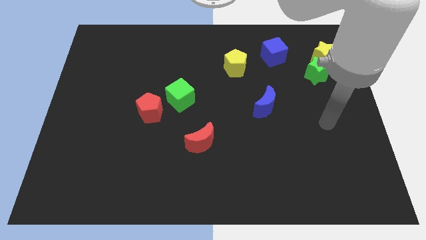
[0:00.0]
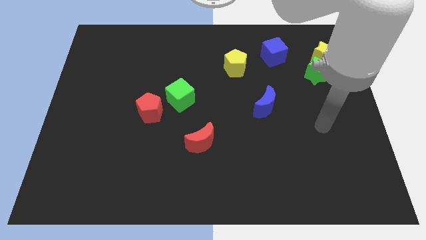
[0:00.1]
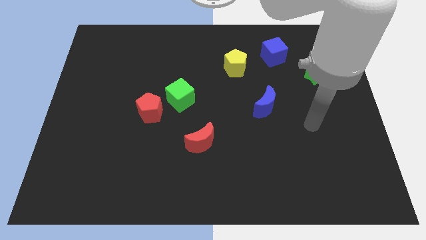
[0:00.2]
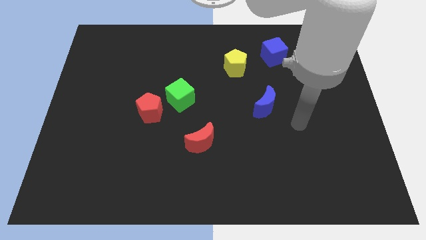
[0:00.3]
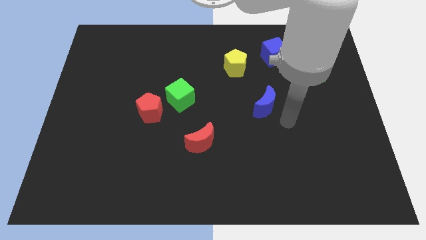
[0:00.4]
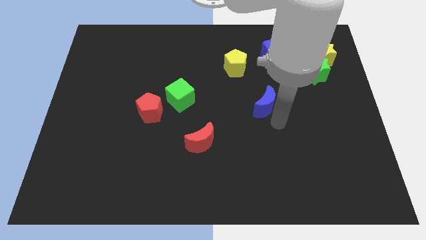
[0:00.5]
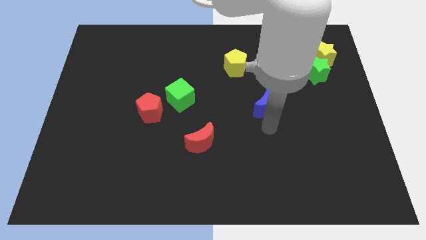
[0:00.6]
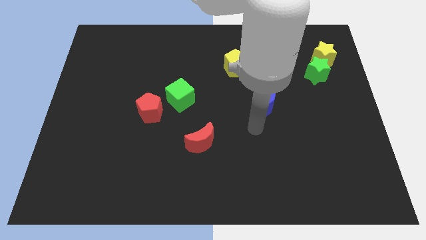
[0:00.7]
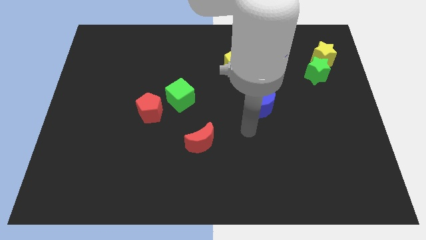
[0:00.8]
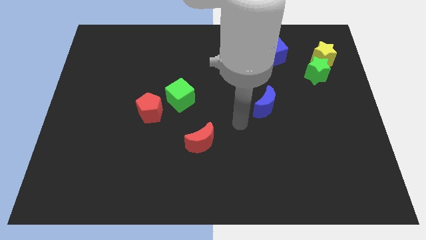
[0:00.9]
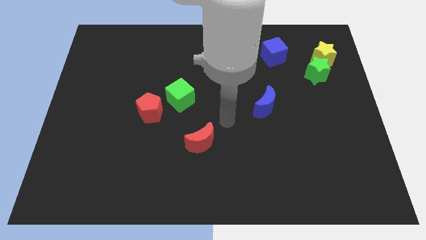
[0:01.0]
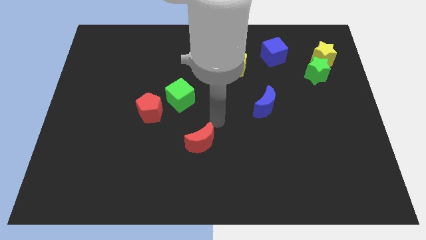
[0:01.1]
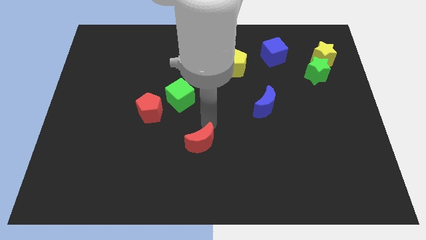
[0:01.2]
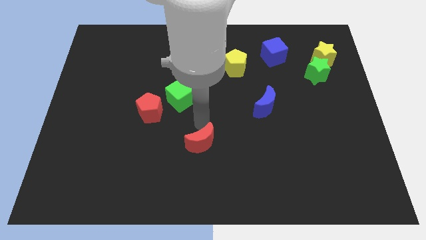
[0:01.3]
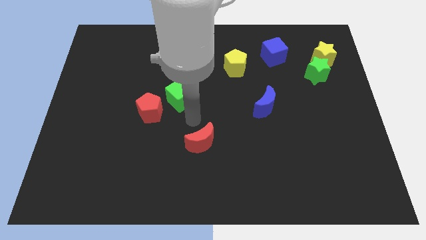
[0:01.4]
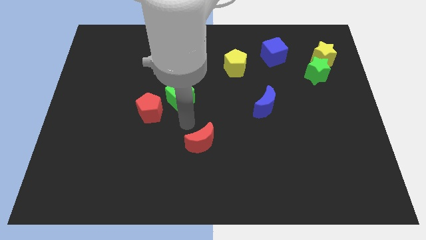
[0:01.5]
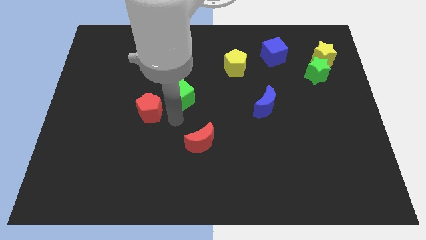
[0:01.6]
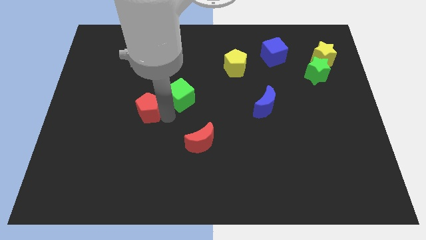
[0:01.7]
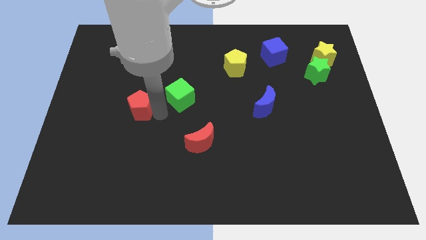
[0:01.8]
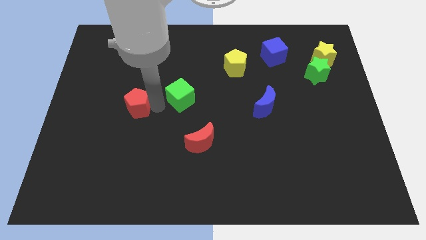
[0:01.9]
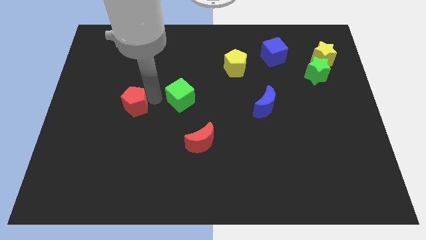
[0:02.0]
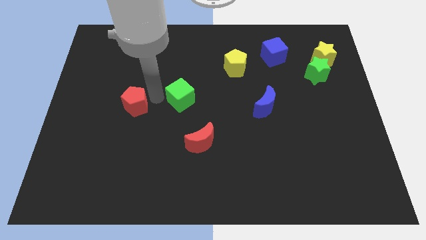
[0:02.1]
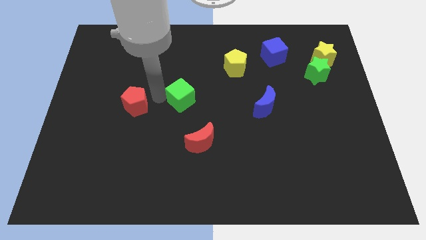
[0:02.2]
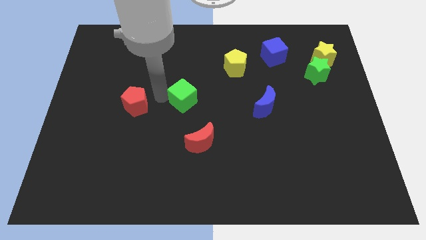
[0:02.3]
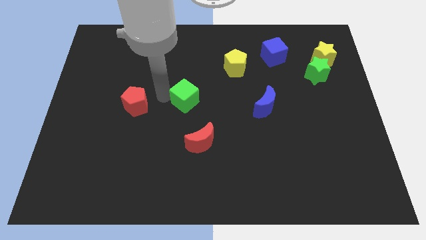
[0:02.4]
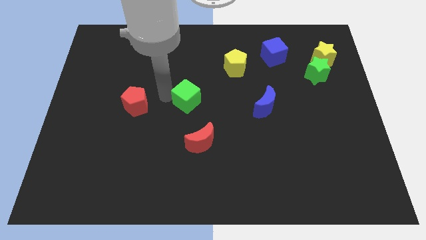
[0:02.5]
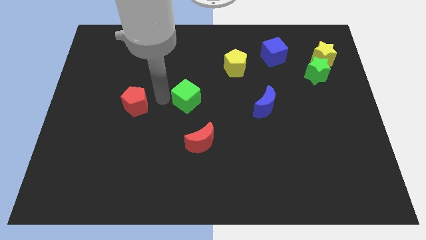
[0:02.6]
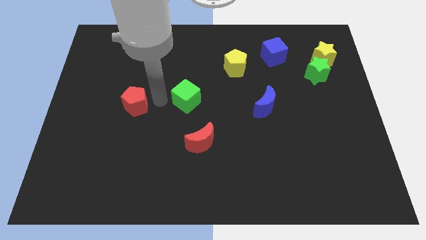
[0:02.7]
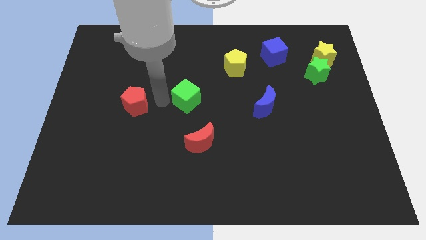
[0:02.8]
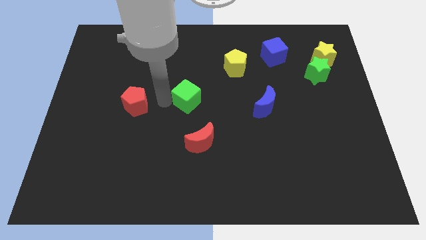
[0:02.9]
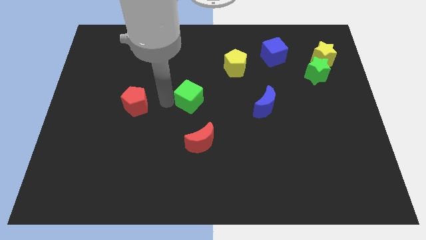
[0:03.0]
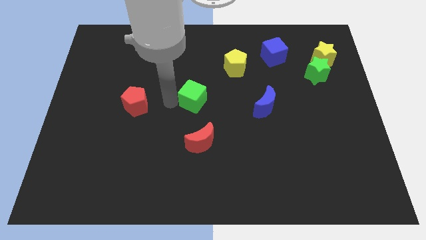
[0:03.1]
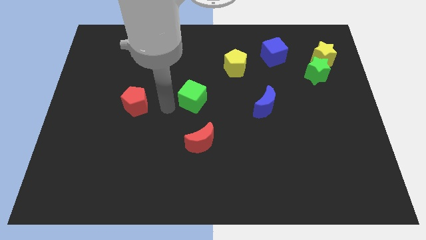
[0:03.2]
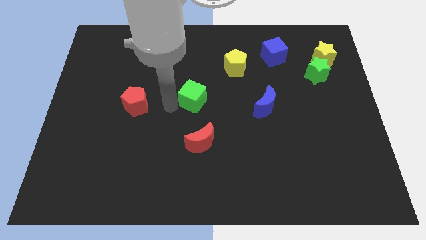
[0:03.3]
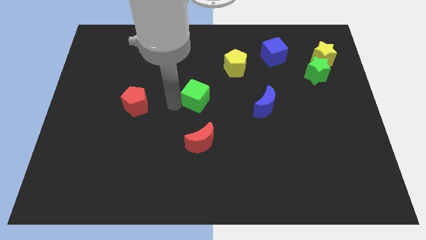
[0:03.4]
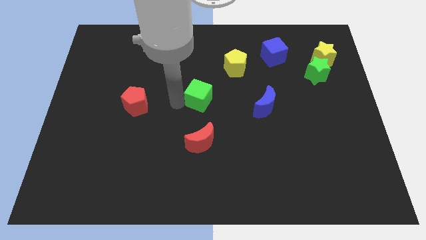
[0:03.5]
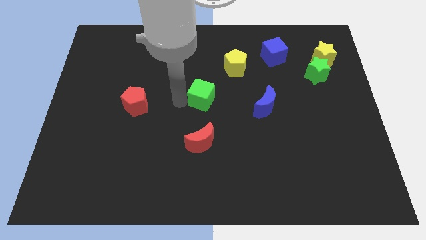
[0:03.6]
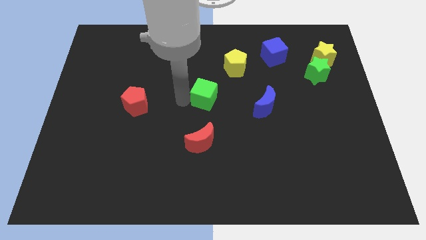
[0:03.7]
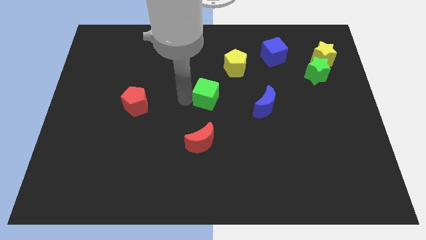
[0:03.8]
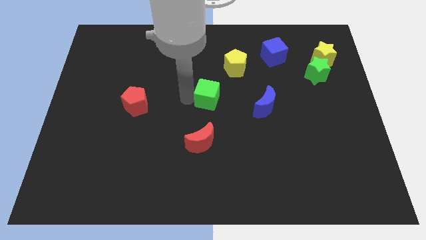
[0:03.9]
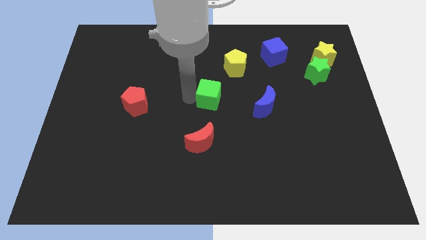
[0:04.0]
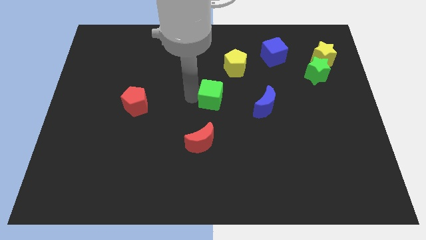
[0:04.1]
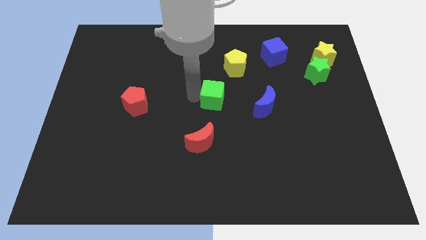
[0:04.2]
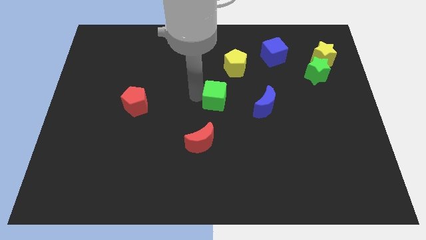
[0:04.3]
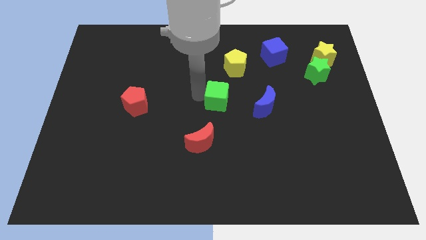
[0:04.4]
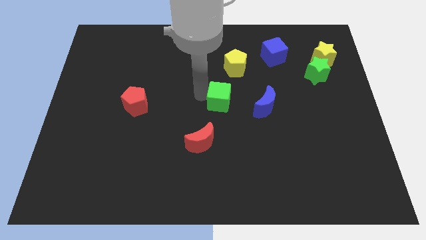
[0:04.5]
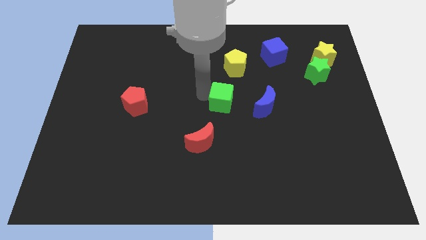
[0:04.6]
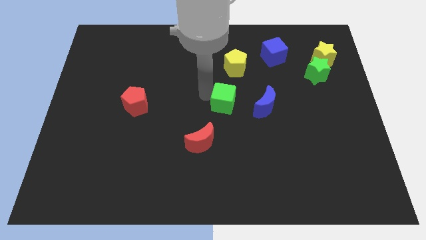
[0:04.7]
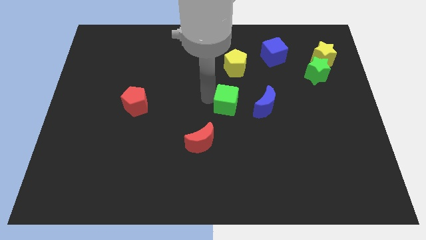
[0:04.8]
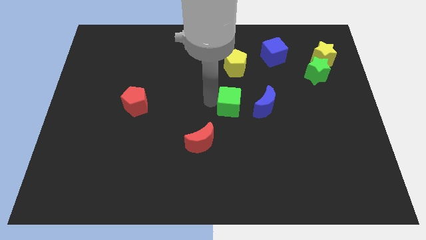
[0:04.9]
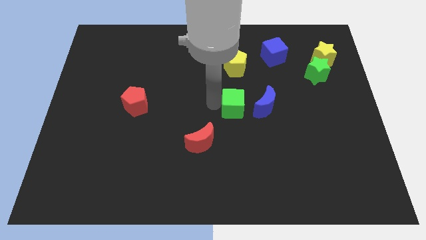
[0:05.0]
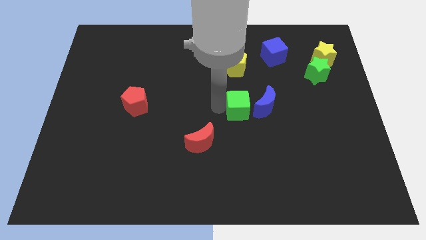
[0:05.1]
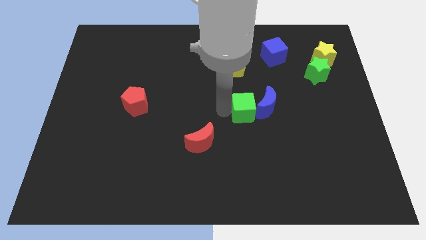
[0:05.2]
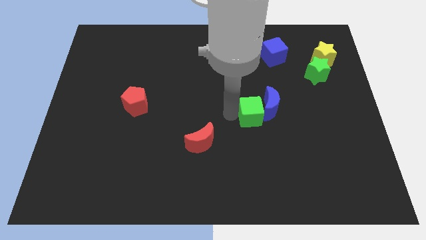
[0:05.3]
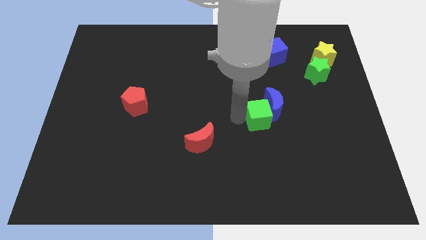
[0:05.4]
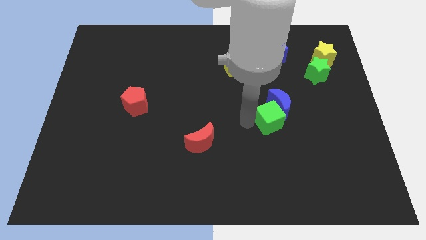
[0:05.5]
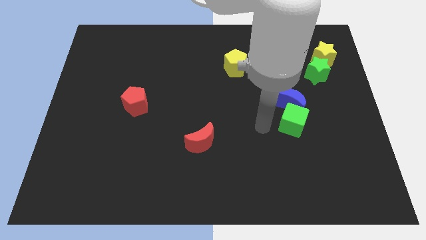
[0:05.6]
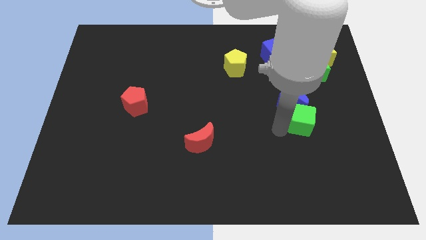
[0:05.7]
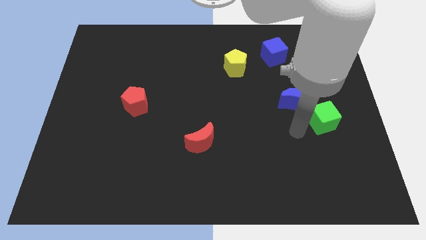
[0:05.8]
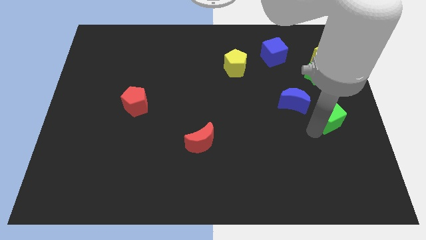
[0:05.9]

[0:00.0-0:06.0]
put the green cube to the right side

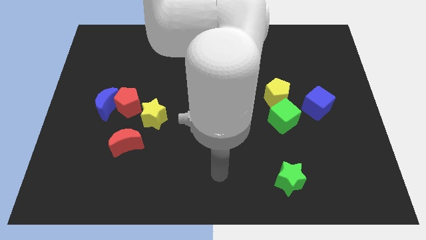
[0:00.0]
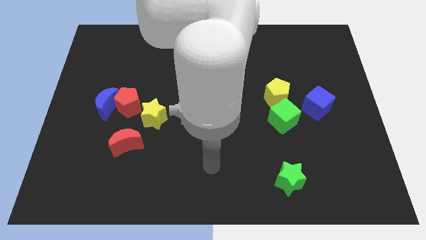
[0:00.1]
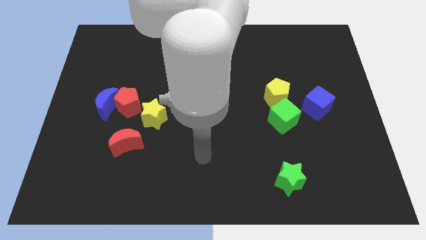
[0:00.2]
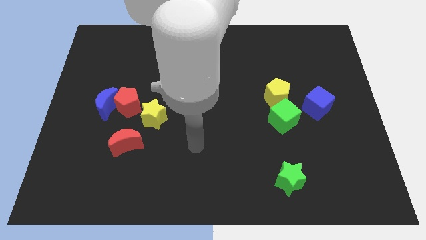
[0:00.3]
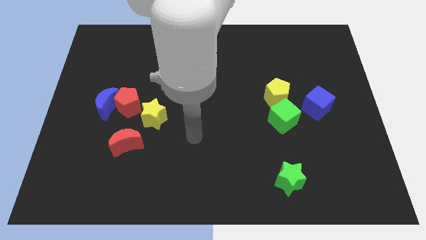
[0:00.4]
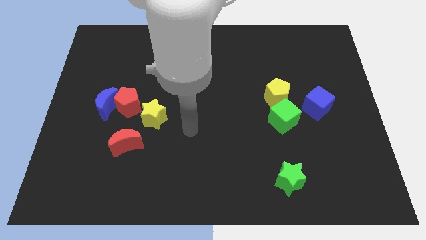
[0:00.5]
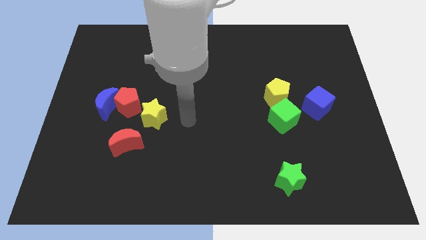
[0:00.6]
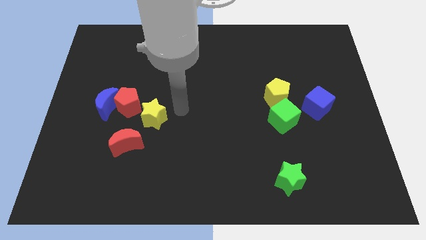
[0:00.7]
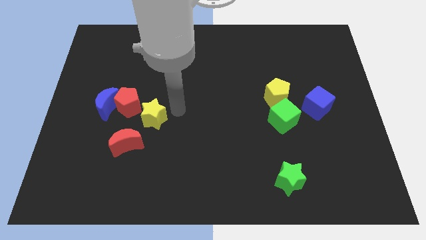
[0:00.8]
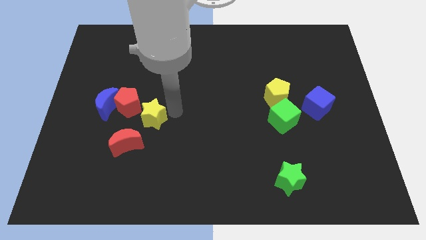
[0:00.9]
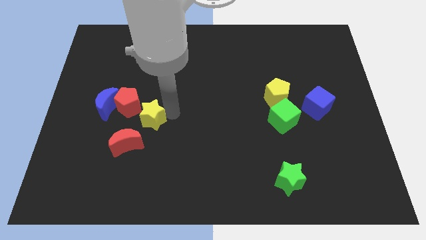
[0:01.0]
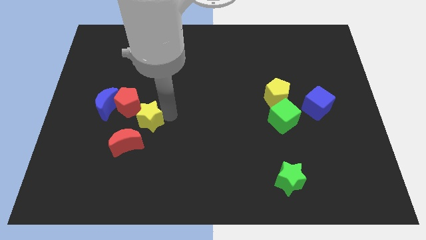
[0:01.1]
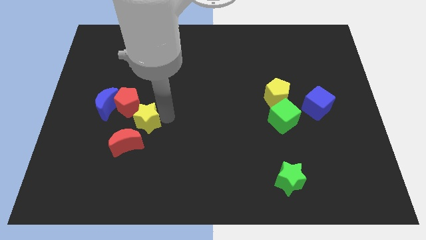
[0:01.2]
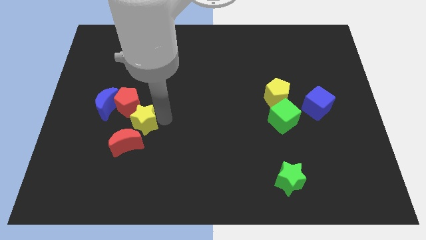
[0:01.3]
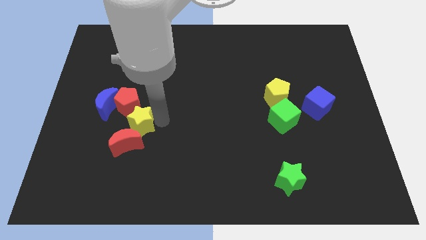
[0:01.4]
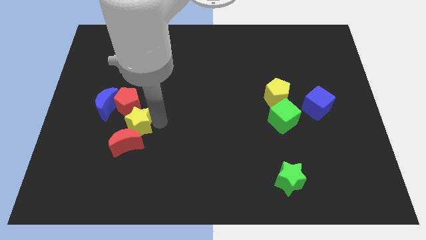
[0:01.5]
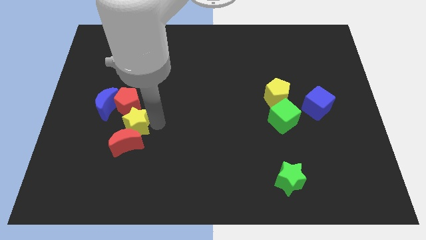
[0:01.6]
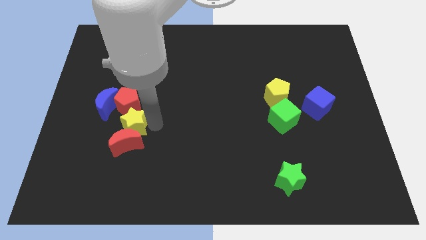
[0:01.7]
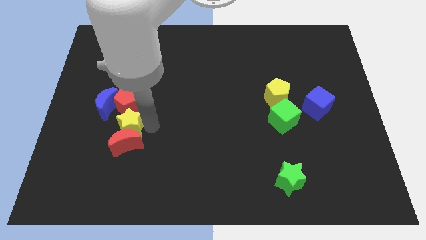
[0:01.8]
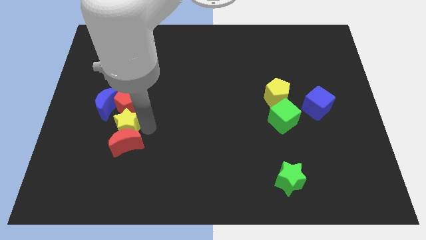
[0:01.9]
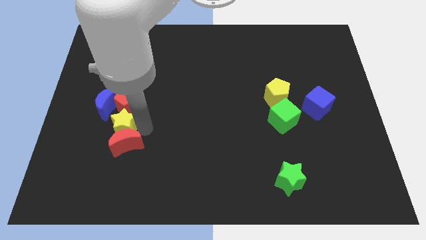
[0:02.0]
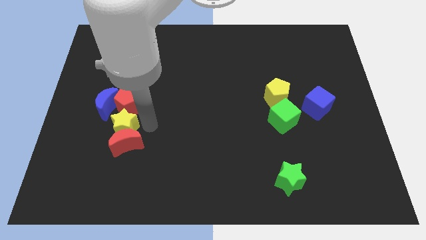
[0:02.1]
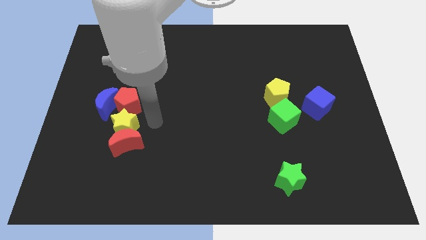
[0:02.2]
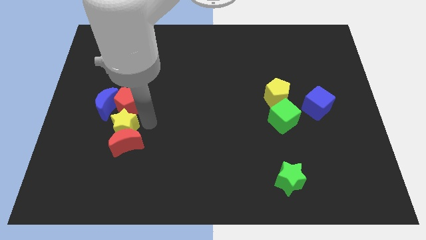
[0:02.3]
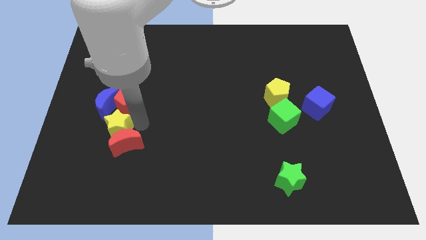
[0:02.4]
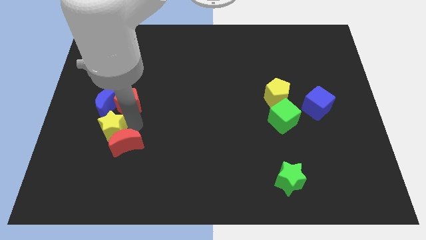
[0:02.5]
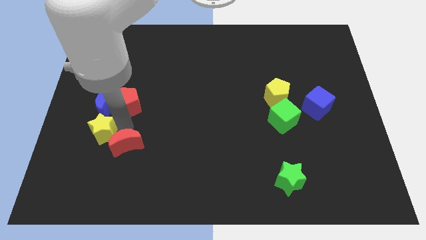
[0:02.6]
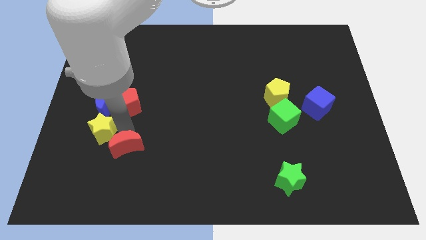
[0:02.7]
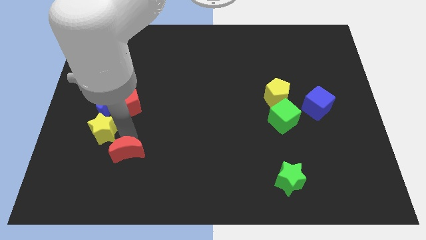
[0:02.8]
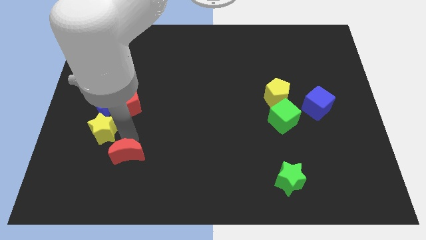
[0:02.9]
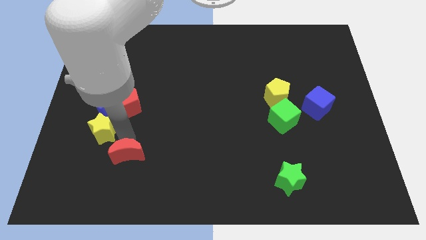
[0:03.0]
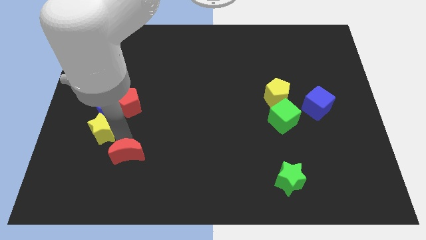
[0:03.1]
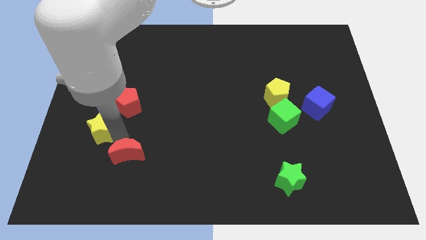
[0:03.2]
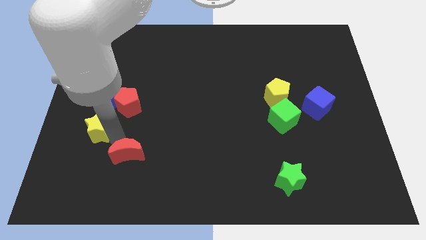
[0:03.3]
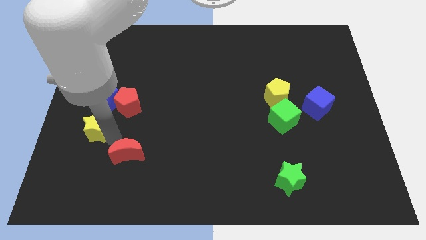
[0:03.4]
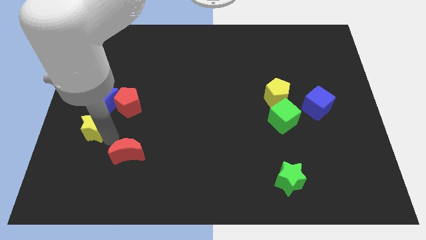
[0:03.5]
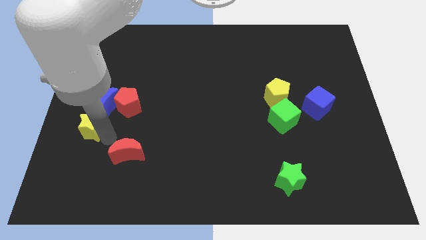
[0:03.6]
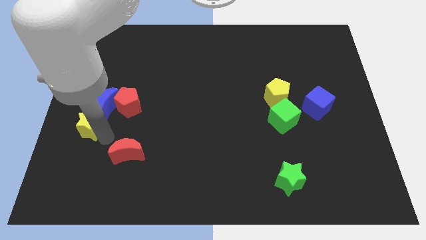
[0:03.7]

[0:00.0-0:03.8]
put the yellow star to the center left
